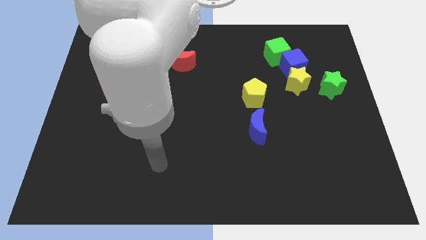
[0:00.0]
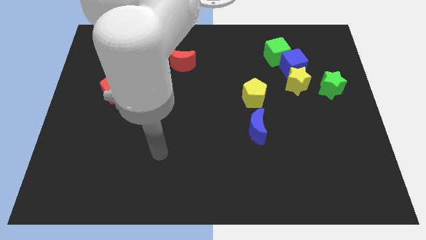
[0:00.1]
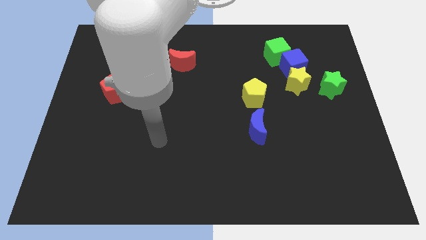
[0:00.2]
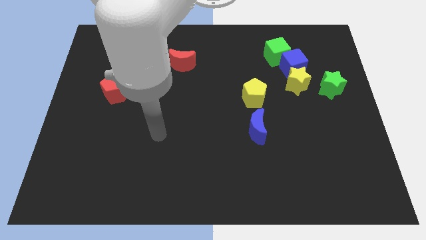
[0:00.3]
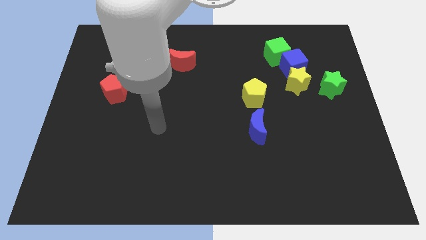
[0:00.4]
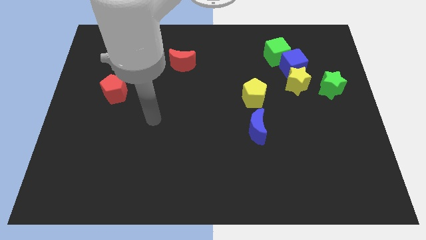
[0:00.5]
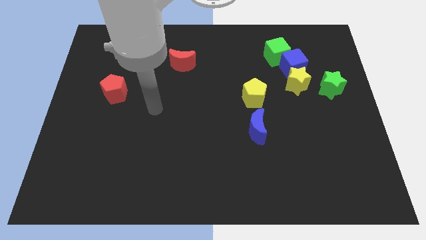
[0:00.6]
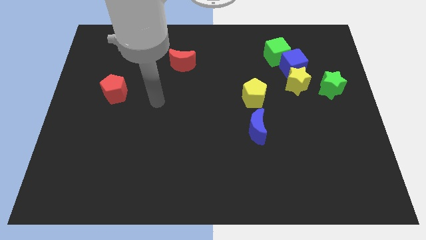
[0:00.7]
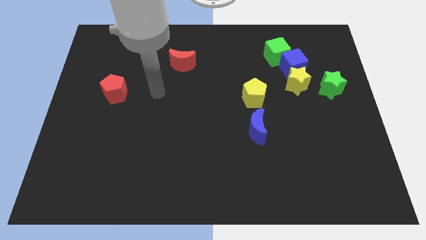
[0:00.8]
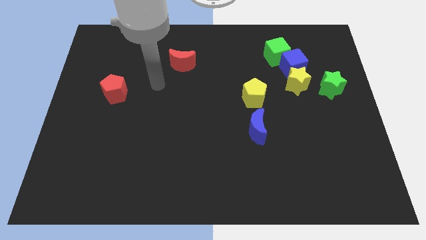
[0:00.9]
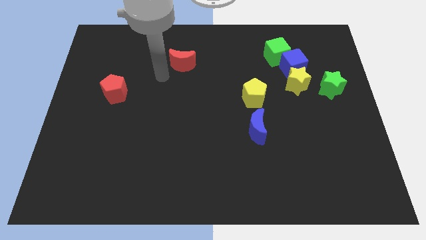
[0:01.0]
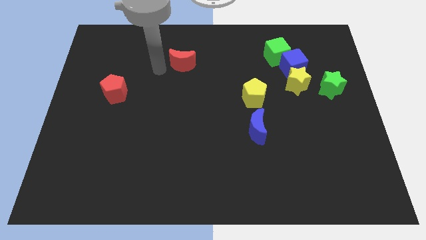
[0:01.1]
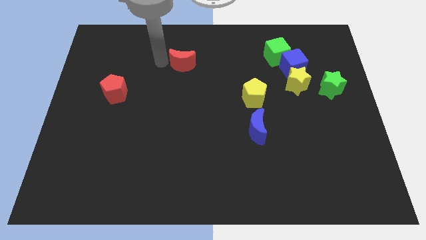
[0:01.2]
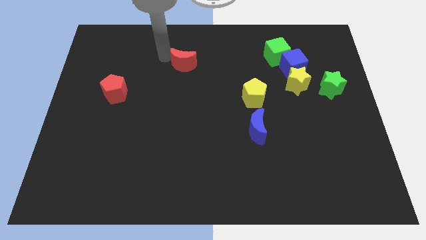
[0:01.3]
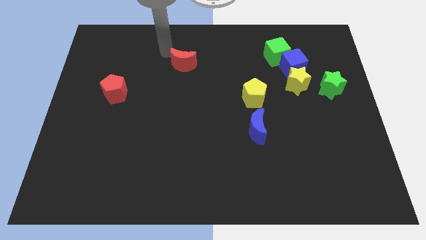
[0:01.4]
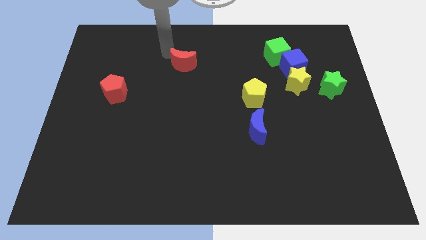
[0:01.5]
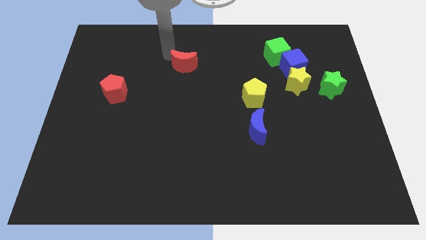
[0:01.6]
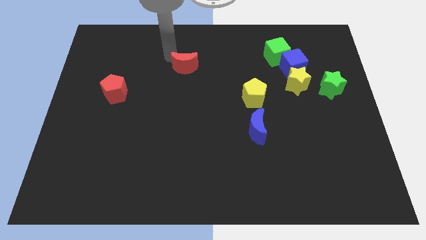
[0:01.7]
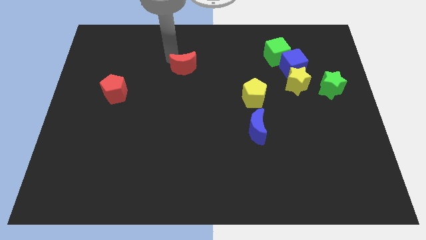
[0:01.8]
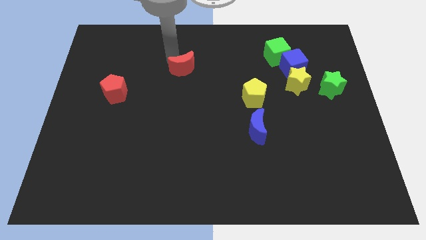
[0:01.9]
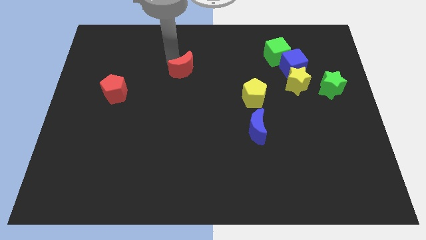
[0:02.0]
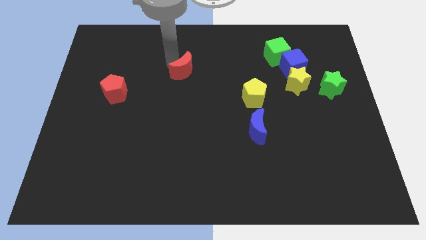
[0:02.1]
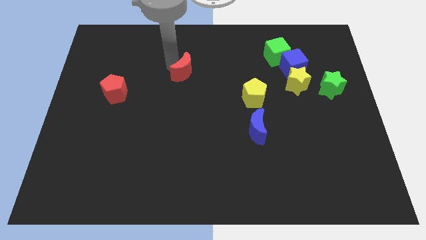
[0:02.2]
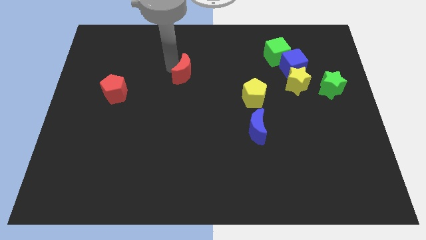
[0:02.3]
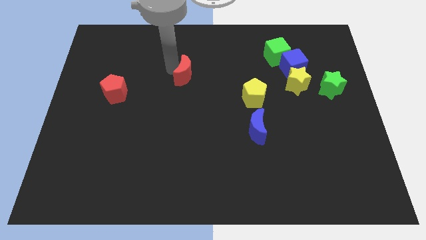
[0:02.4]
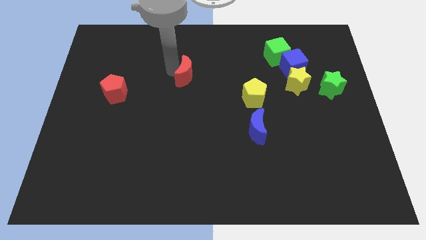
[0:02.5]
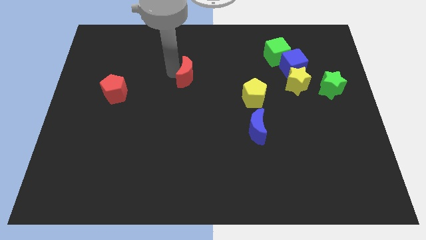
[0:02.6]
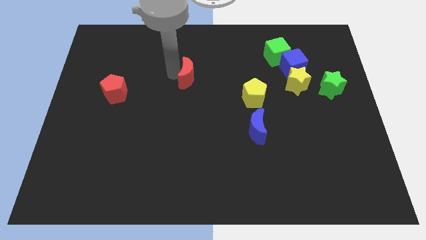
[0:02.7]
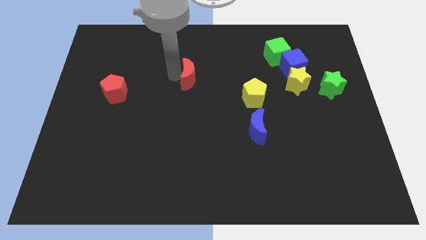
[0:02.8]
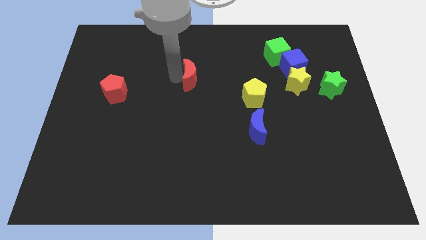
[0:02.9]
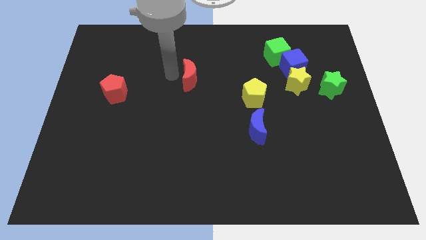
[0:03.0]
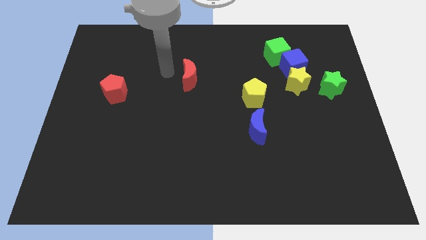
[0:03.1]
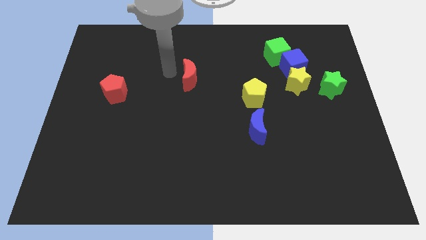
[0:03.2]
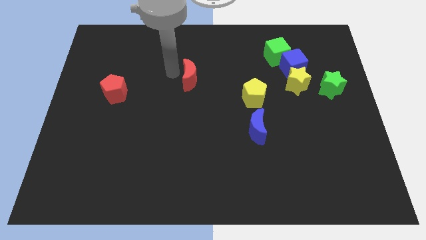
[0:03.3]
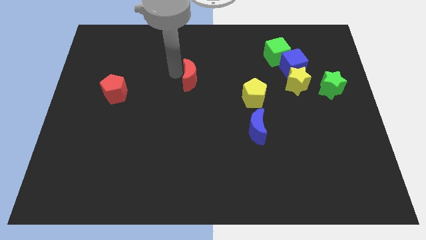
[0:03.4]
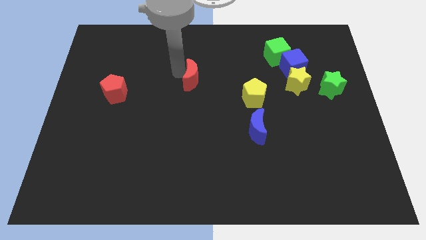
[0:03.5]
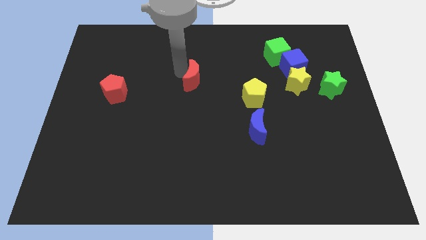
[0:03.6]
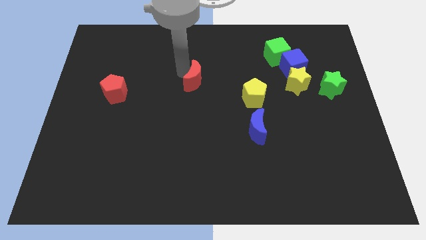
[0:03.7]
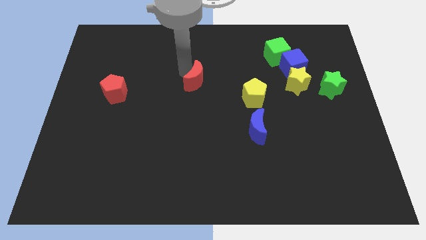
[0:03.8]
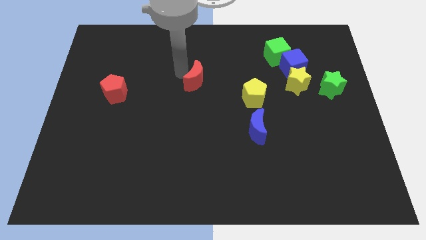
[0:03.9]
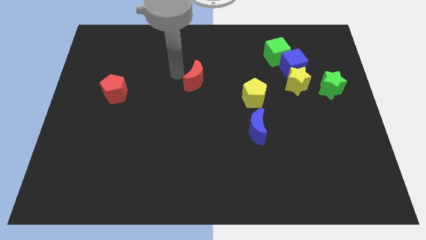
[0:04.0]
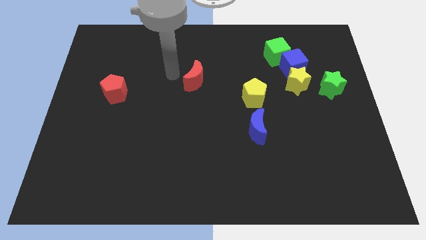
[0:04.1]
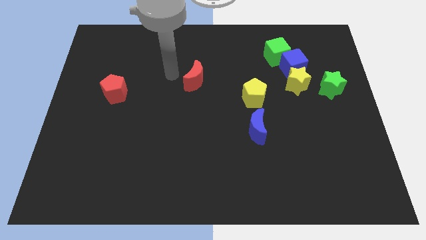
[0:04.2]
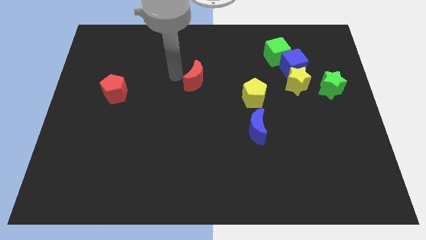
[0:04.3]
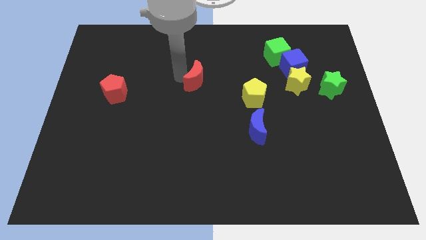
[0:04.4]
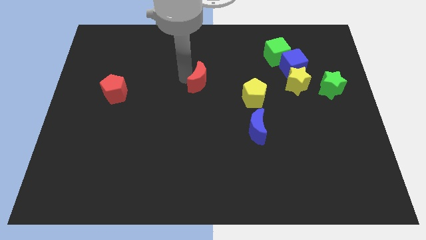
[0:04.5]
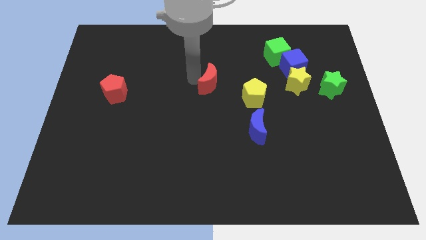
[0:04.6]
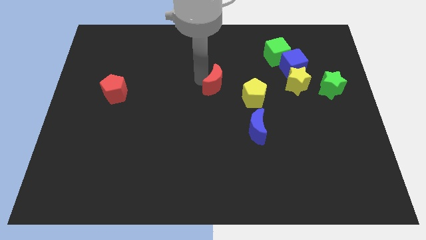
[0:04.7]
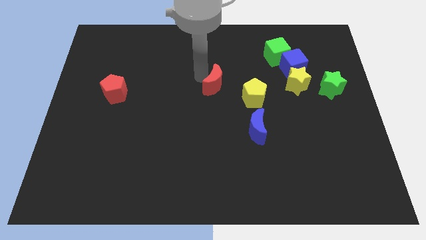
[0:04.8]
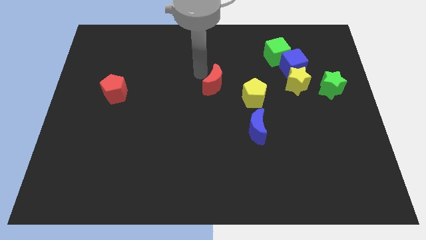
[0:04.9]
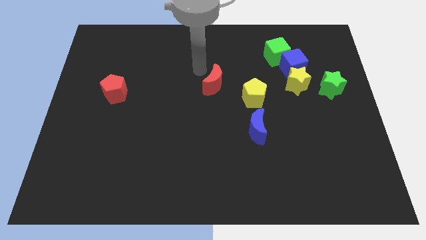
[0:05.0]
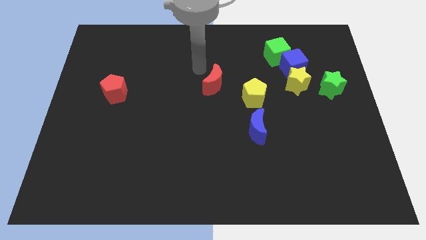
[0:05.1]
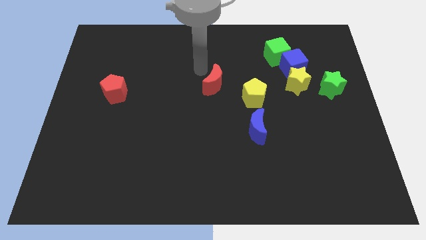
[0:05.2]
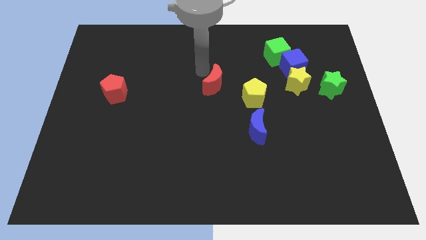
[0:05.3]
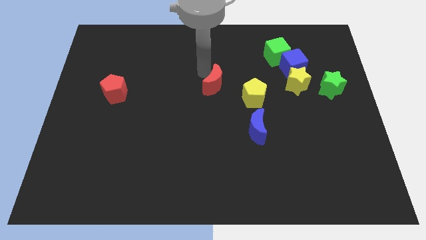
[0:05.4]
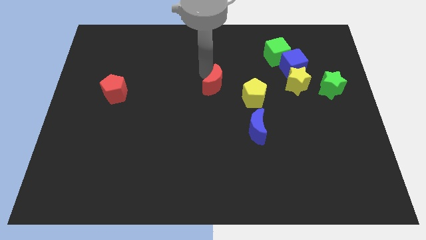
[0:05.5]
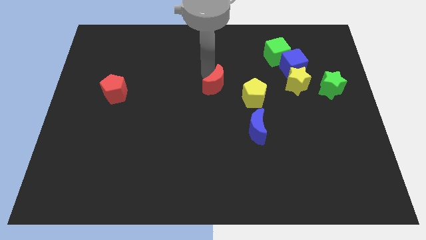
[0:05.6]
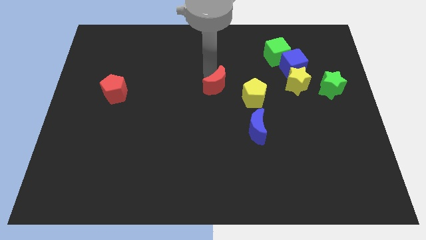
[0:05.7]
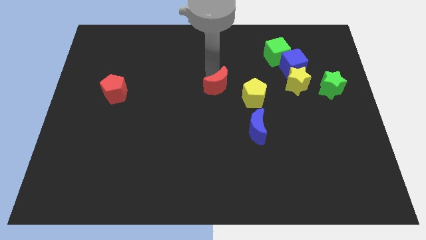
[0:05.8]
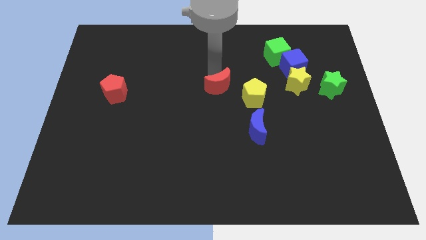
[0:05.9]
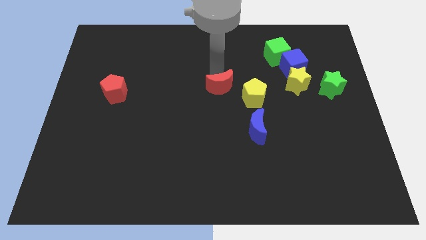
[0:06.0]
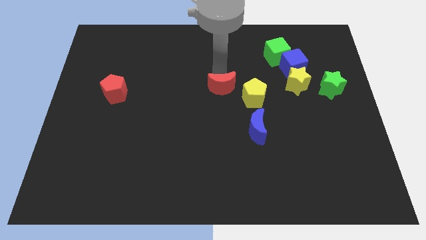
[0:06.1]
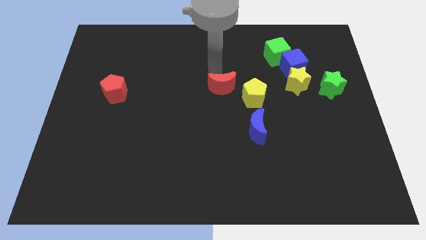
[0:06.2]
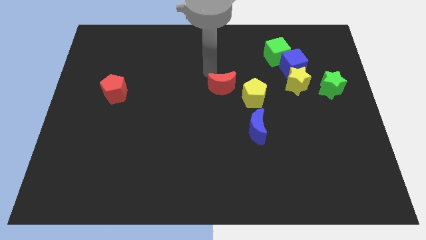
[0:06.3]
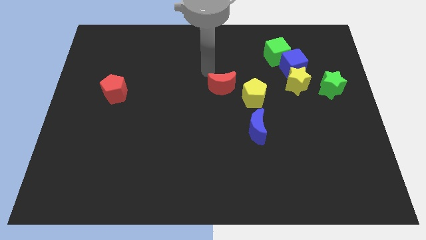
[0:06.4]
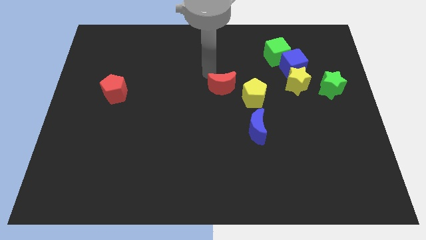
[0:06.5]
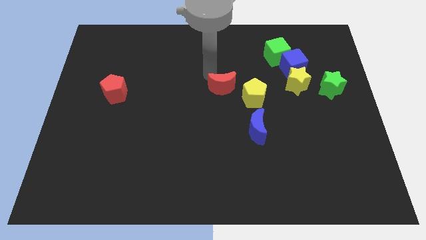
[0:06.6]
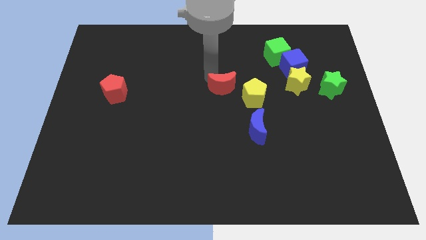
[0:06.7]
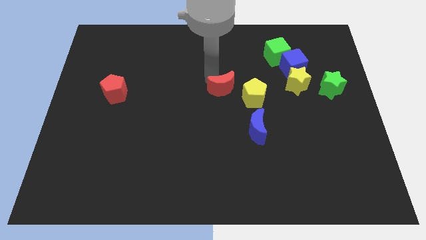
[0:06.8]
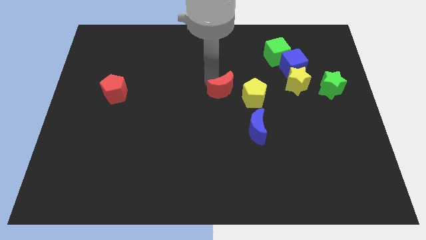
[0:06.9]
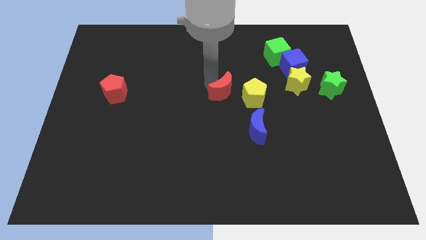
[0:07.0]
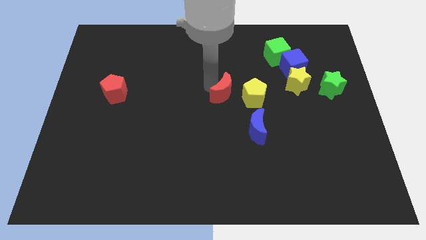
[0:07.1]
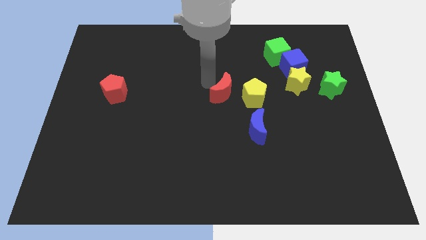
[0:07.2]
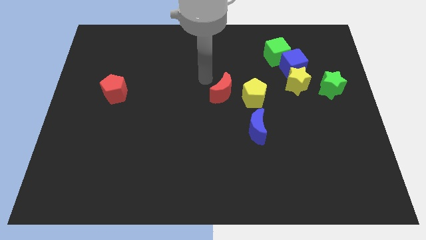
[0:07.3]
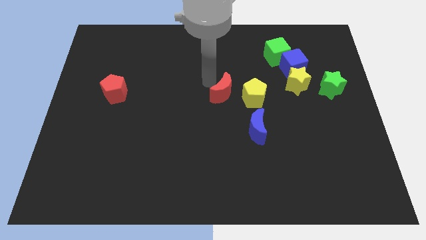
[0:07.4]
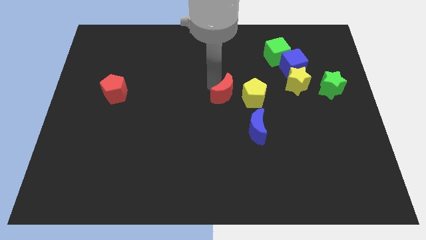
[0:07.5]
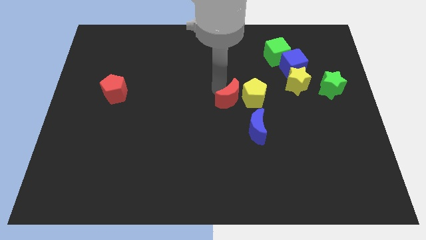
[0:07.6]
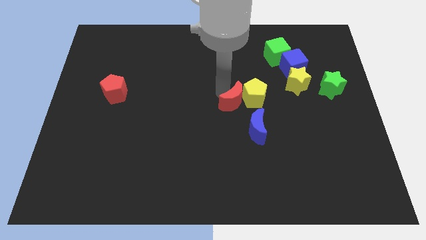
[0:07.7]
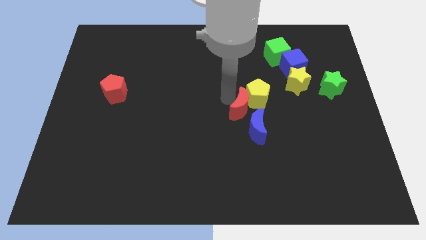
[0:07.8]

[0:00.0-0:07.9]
move the red moon diagonally down and right

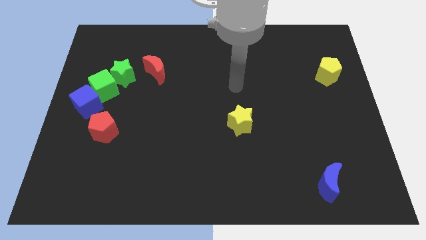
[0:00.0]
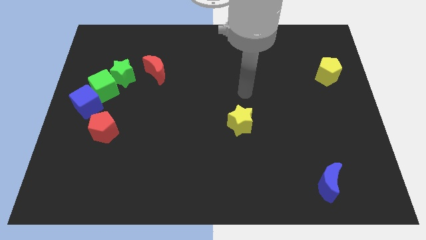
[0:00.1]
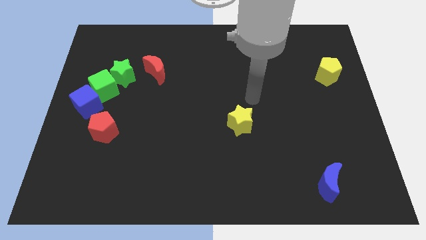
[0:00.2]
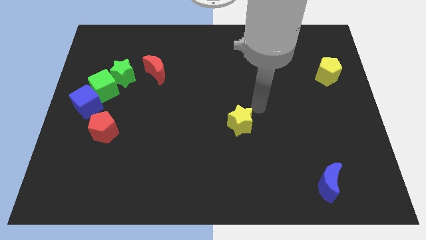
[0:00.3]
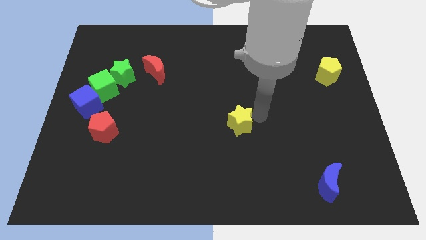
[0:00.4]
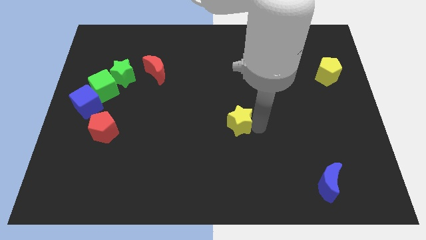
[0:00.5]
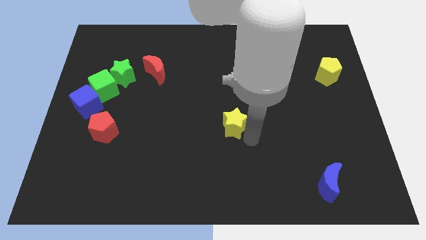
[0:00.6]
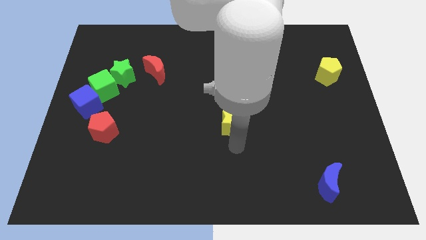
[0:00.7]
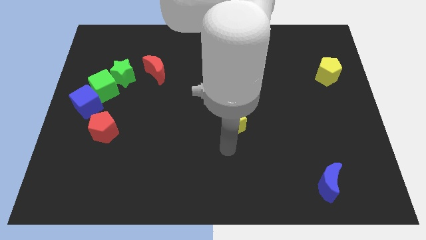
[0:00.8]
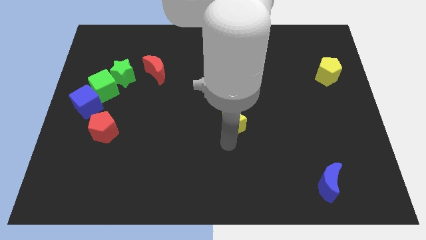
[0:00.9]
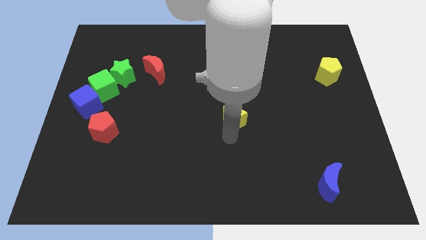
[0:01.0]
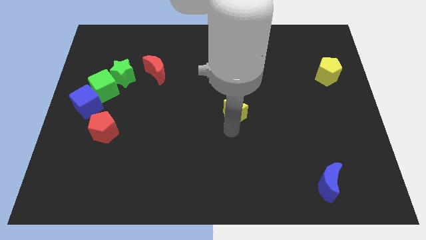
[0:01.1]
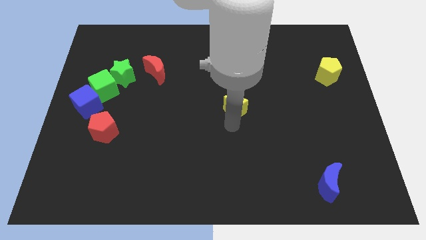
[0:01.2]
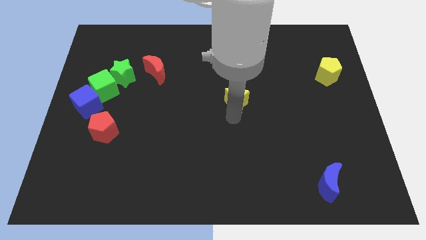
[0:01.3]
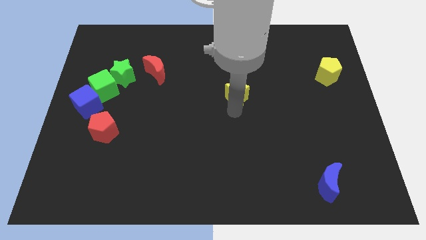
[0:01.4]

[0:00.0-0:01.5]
slide the yellow star up somewhat
